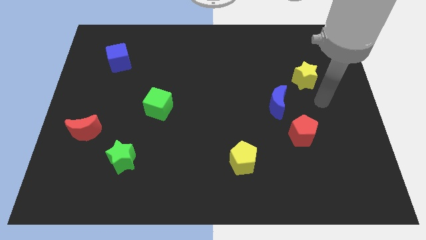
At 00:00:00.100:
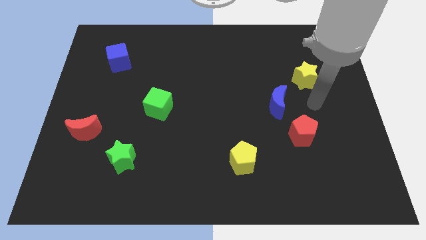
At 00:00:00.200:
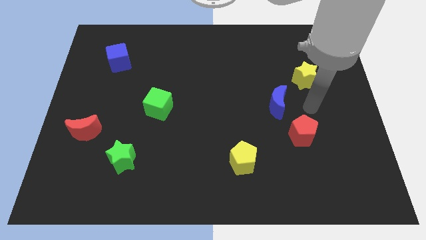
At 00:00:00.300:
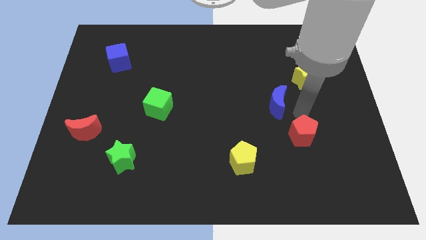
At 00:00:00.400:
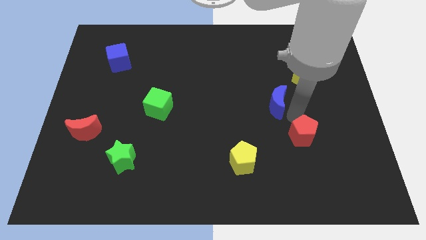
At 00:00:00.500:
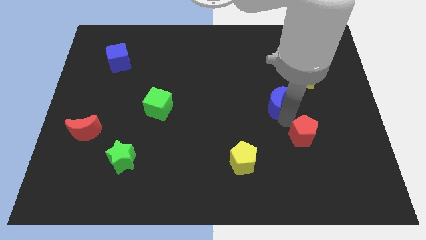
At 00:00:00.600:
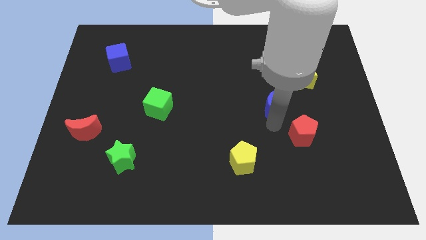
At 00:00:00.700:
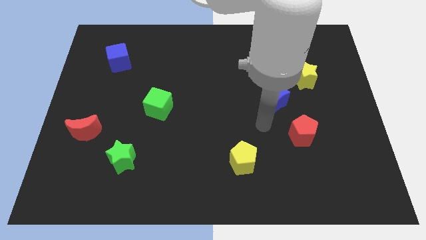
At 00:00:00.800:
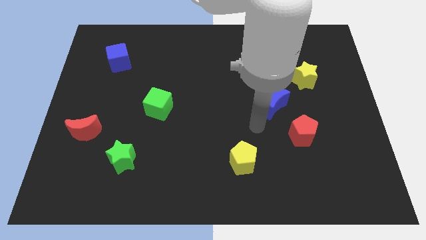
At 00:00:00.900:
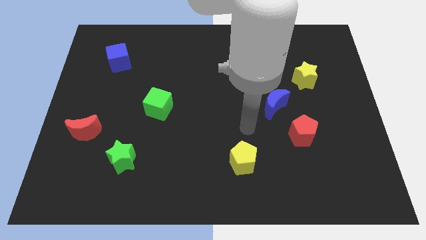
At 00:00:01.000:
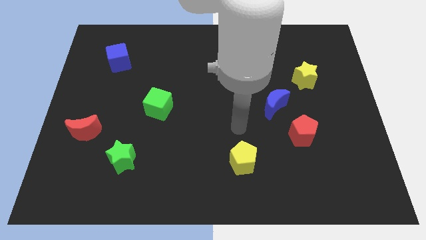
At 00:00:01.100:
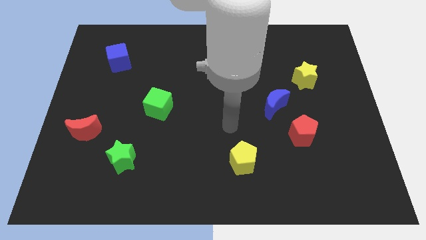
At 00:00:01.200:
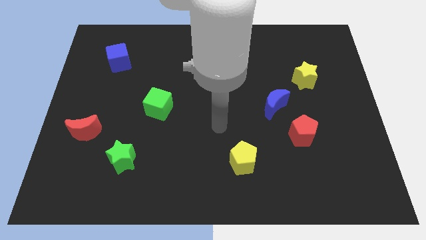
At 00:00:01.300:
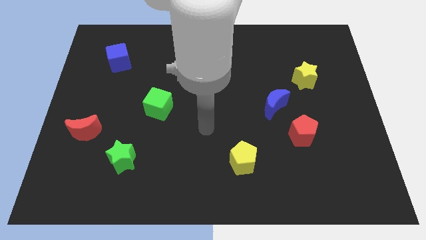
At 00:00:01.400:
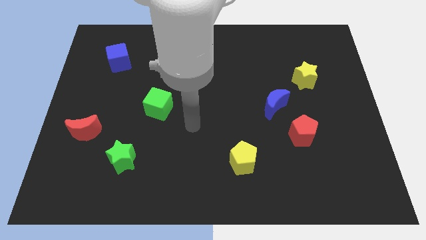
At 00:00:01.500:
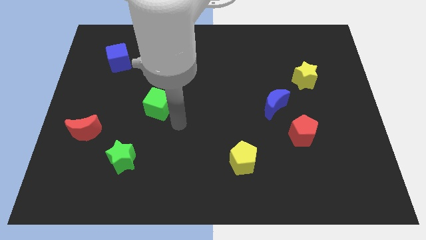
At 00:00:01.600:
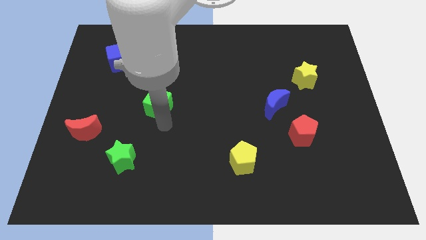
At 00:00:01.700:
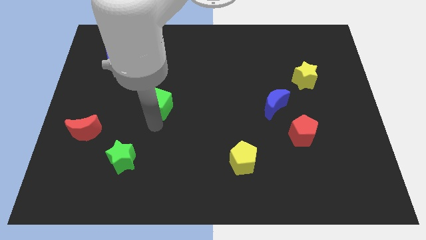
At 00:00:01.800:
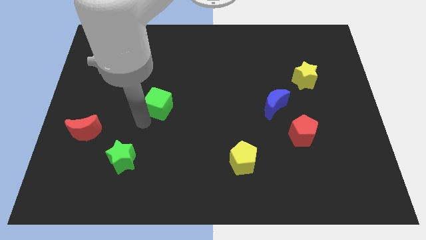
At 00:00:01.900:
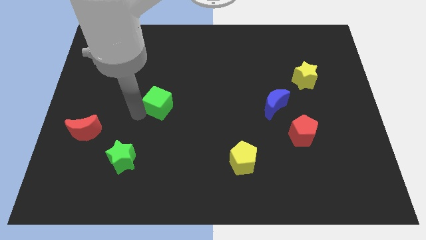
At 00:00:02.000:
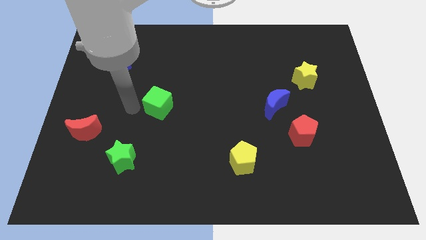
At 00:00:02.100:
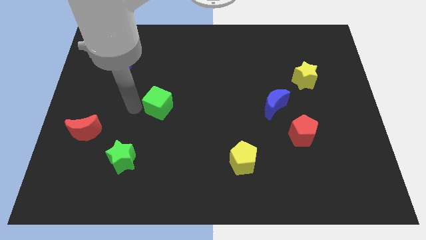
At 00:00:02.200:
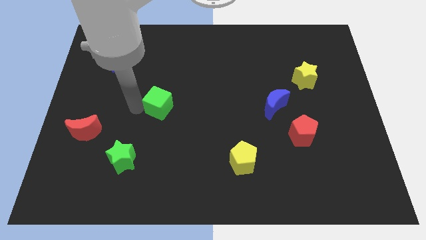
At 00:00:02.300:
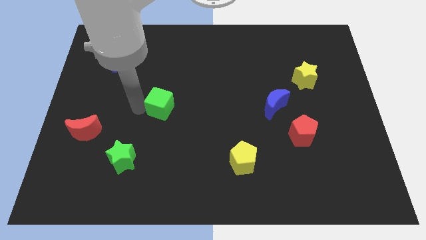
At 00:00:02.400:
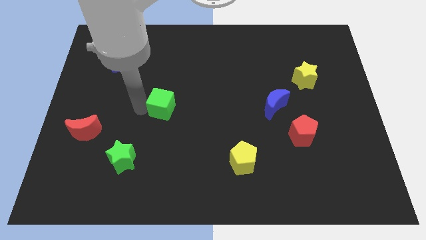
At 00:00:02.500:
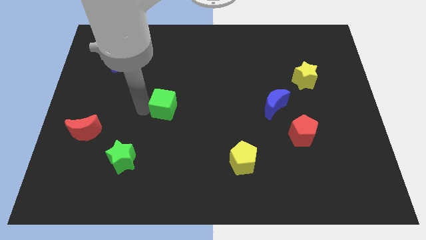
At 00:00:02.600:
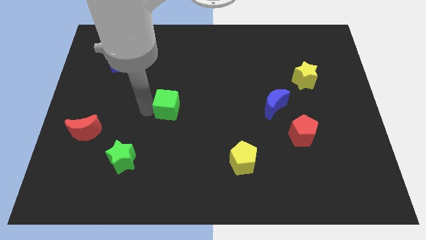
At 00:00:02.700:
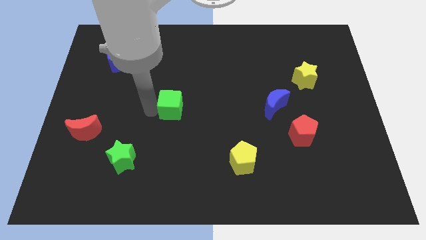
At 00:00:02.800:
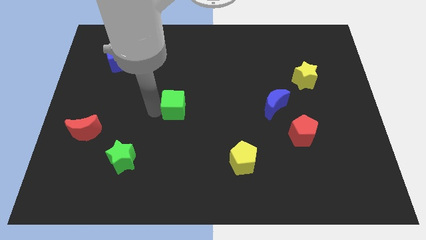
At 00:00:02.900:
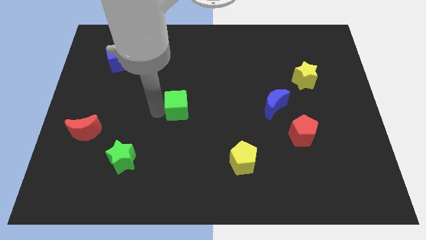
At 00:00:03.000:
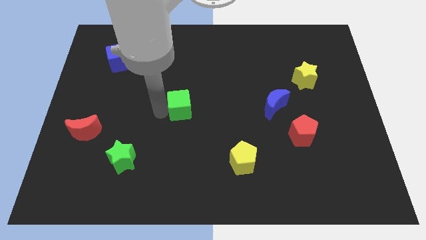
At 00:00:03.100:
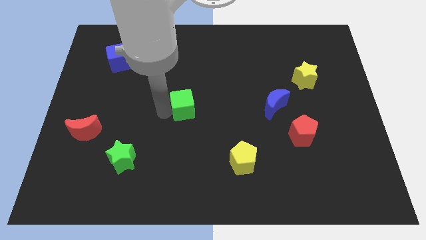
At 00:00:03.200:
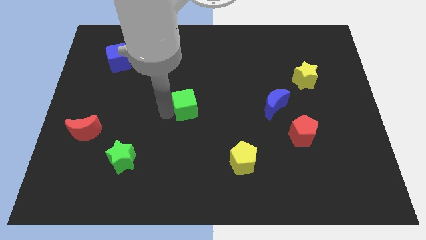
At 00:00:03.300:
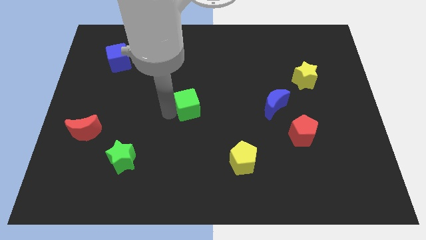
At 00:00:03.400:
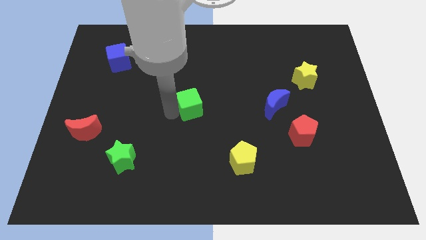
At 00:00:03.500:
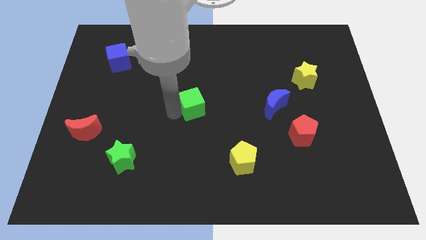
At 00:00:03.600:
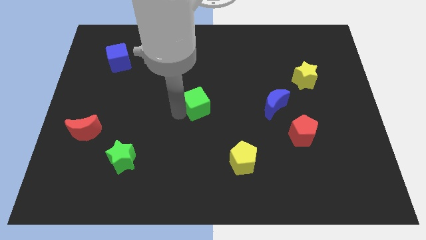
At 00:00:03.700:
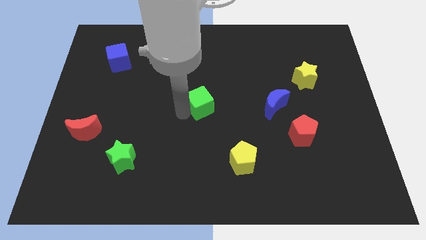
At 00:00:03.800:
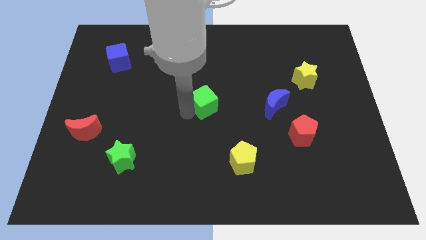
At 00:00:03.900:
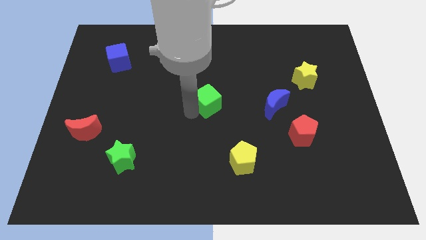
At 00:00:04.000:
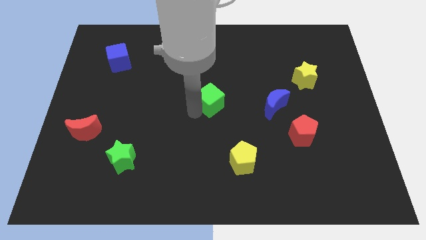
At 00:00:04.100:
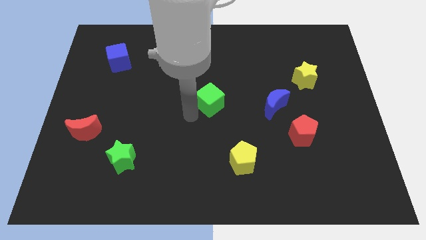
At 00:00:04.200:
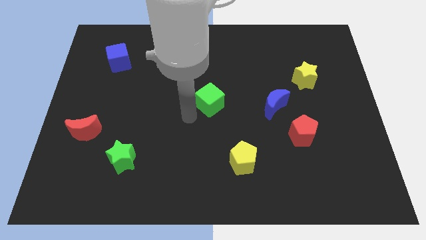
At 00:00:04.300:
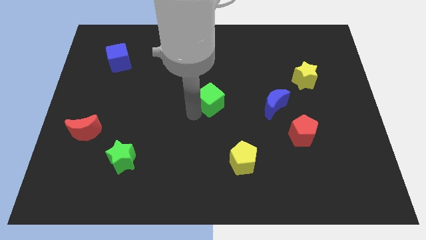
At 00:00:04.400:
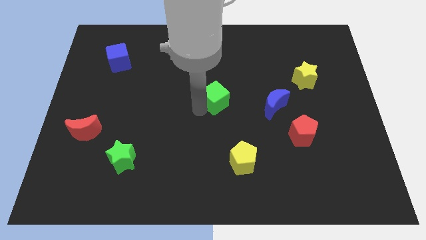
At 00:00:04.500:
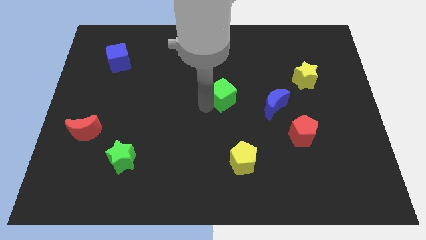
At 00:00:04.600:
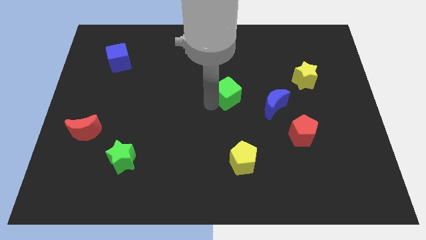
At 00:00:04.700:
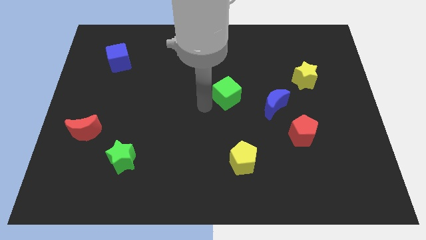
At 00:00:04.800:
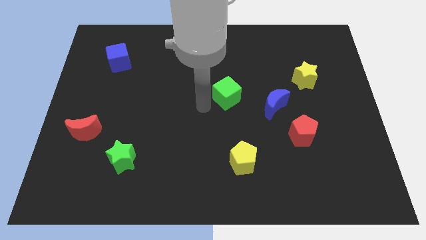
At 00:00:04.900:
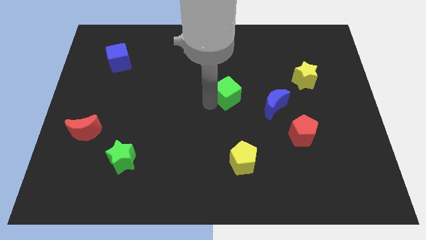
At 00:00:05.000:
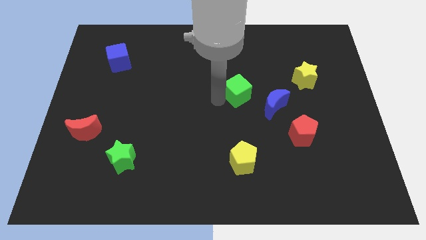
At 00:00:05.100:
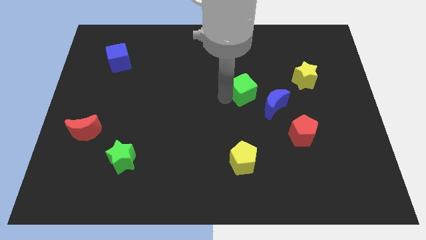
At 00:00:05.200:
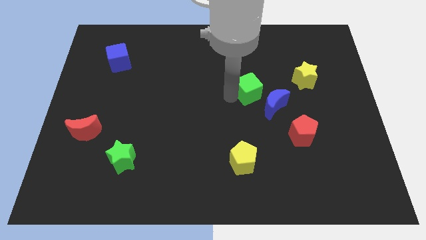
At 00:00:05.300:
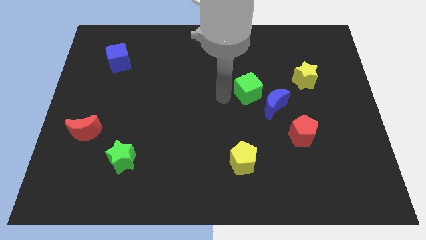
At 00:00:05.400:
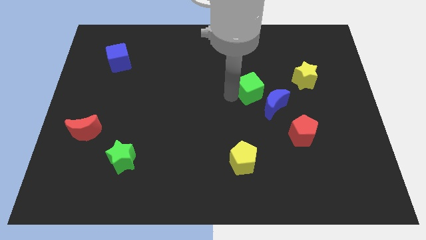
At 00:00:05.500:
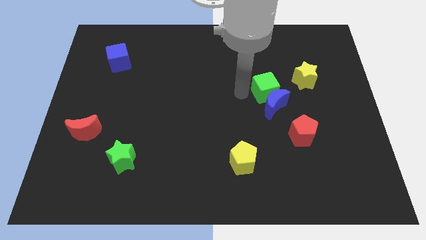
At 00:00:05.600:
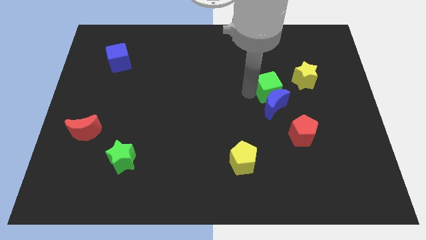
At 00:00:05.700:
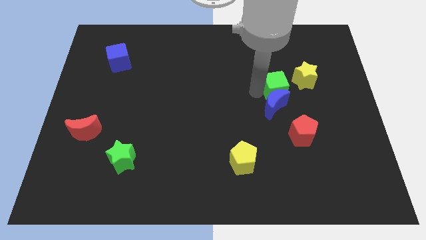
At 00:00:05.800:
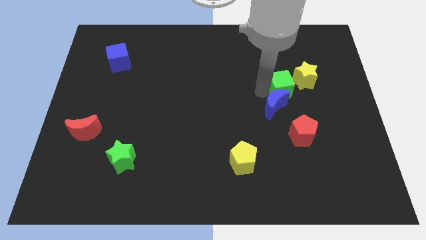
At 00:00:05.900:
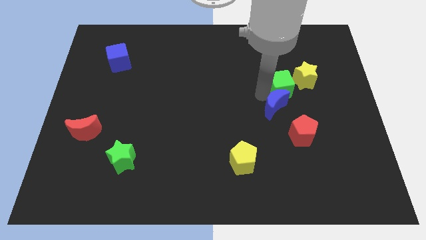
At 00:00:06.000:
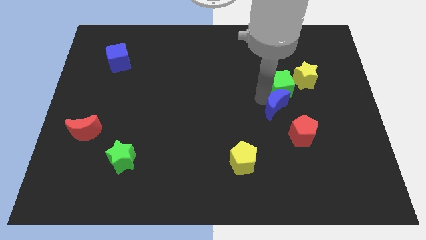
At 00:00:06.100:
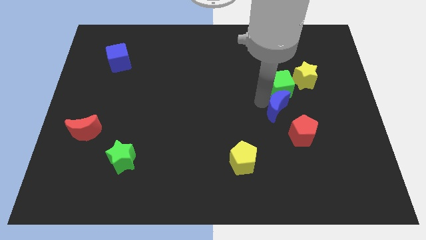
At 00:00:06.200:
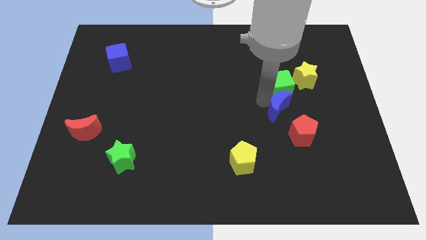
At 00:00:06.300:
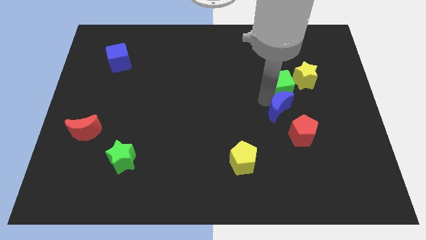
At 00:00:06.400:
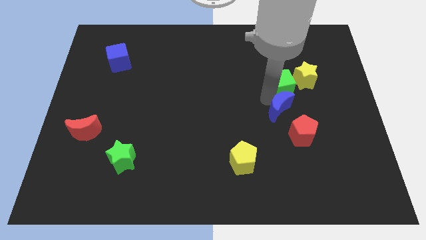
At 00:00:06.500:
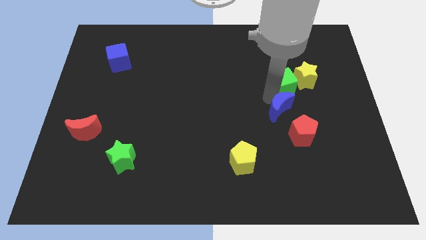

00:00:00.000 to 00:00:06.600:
put the green cube towards the yellow star
